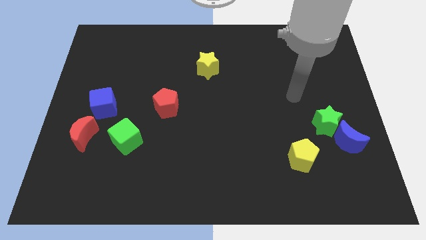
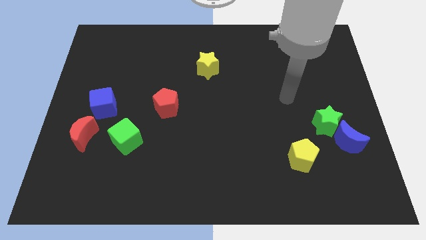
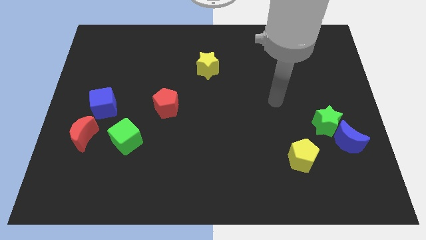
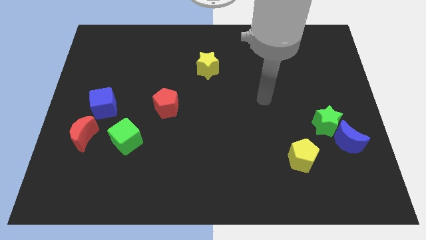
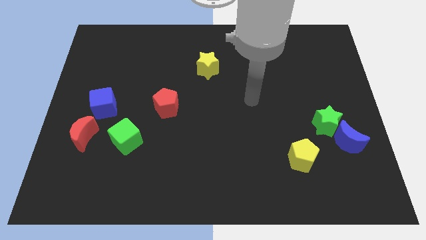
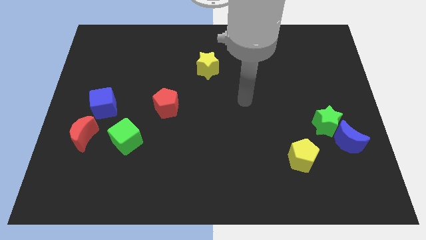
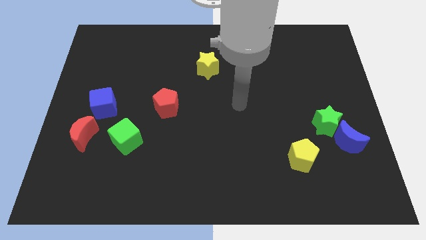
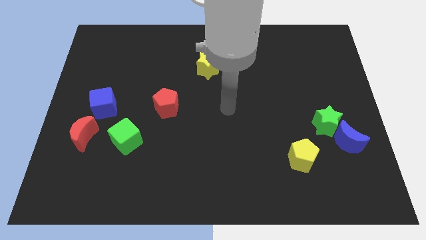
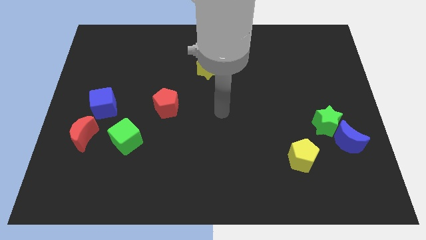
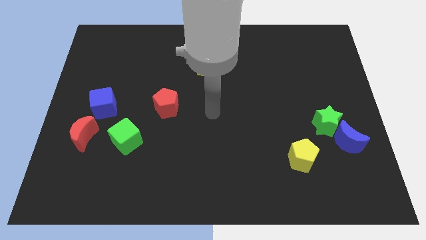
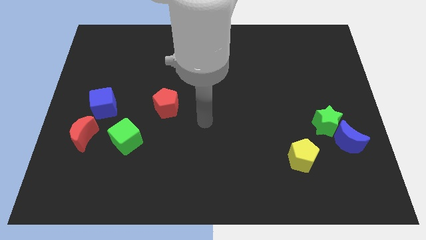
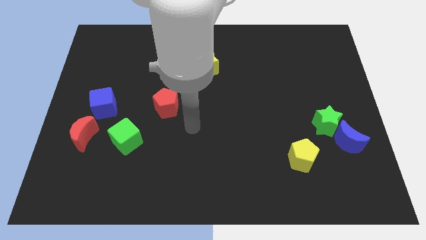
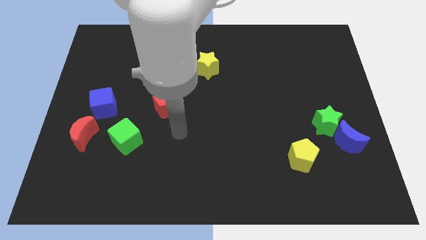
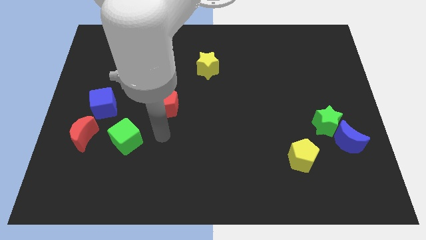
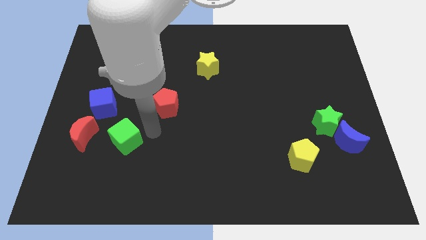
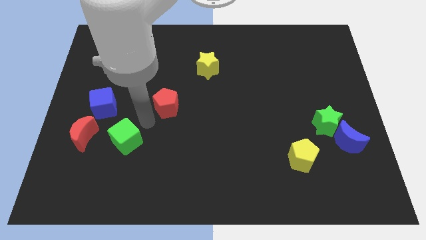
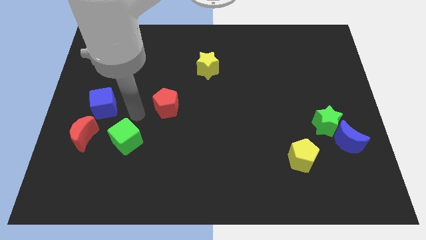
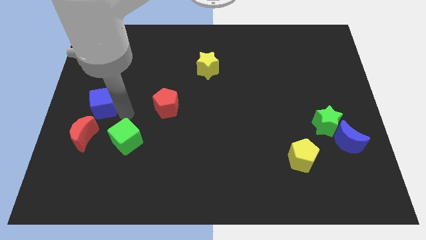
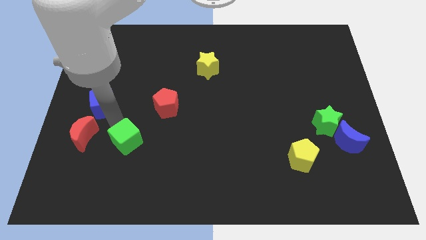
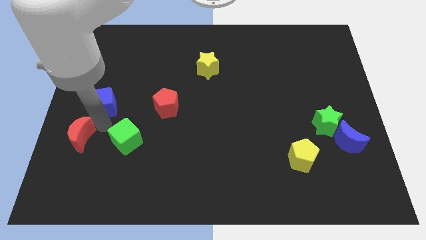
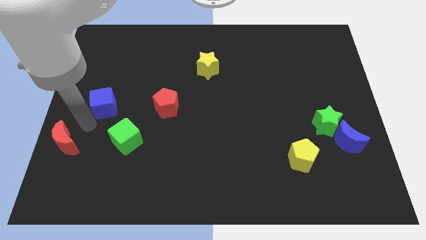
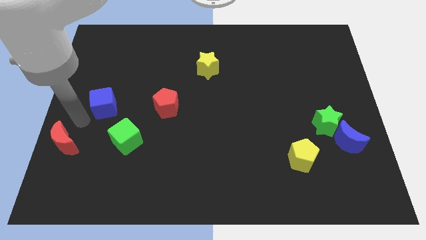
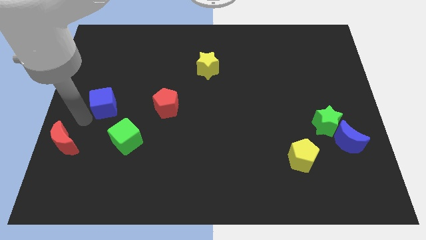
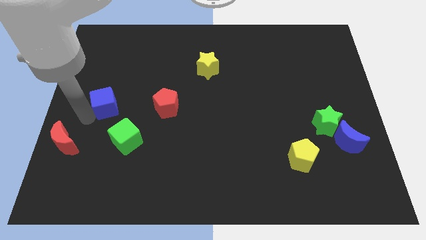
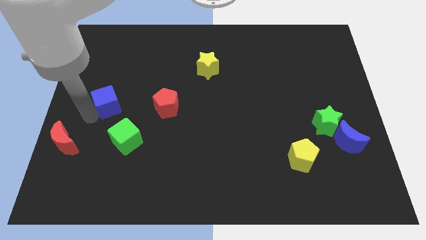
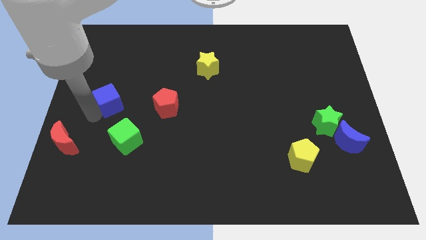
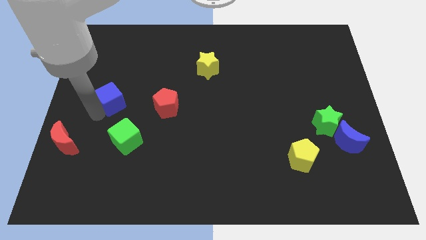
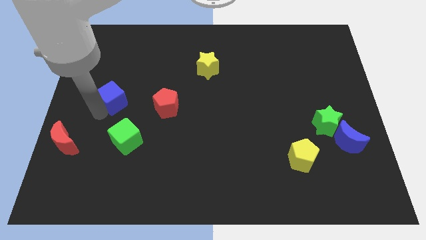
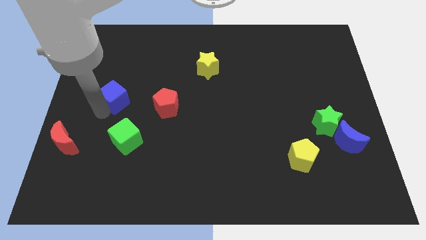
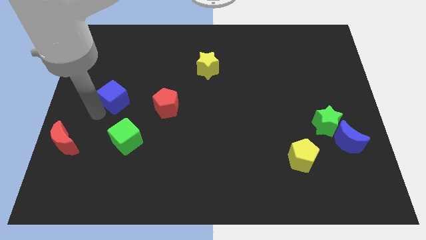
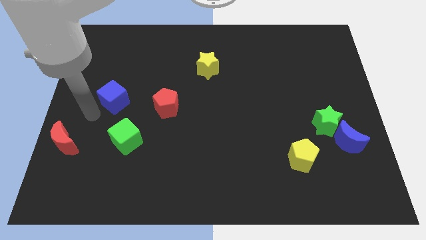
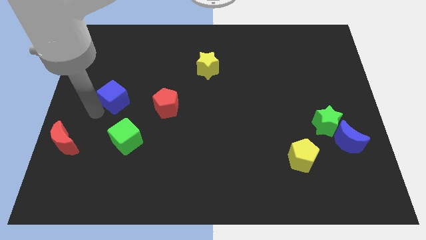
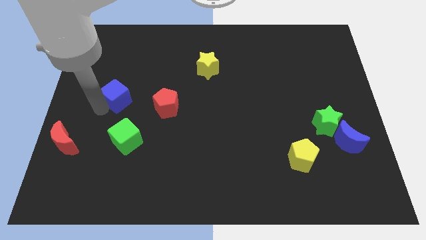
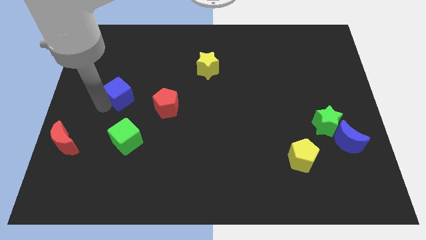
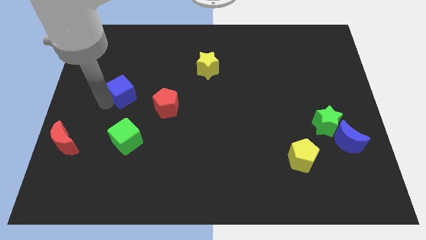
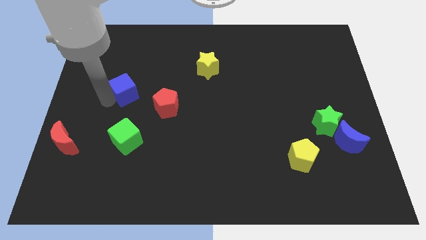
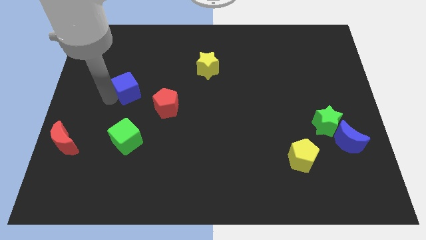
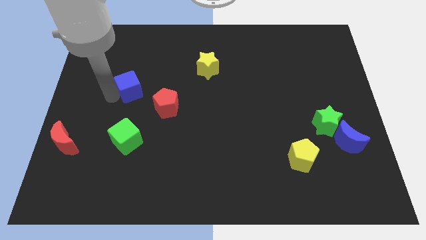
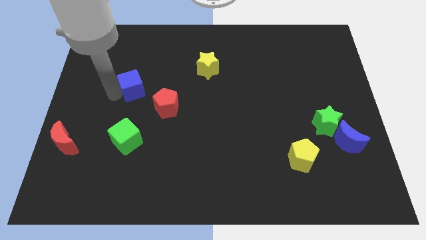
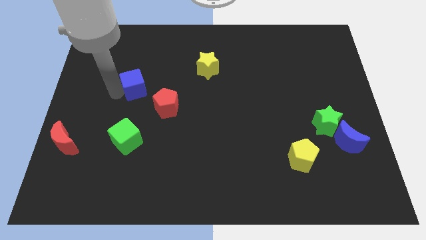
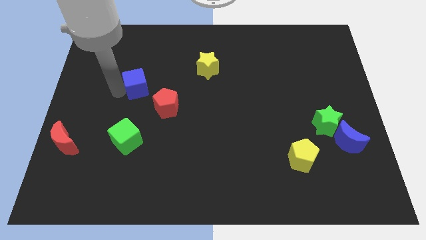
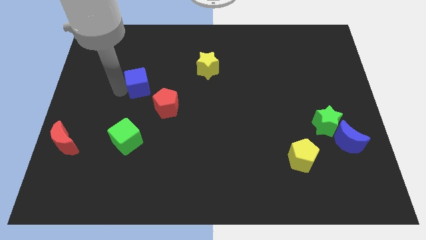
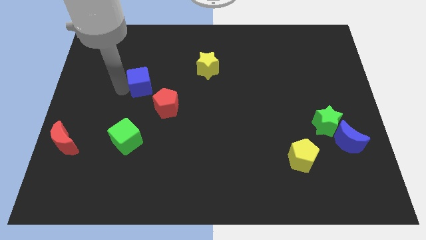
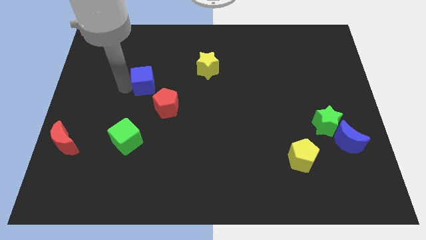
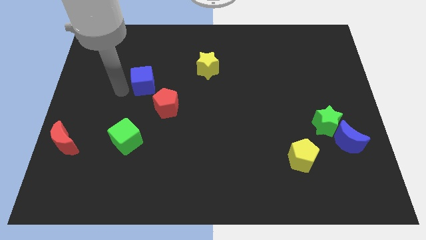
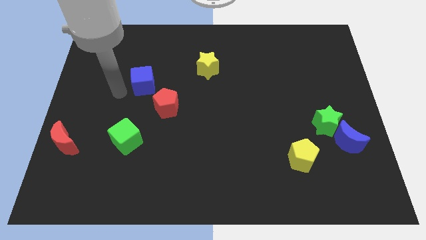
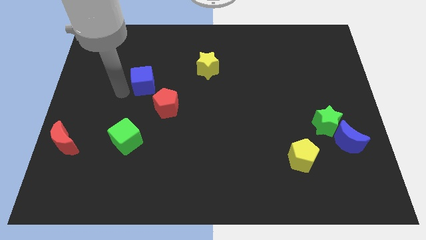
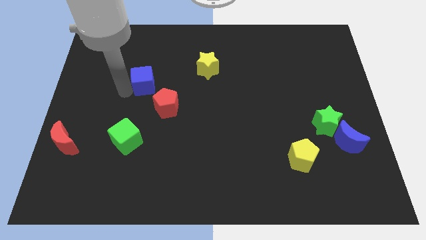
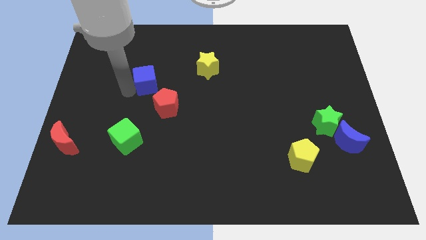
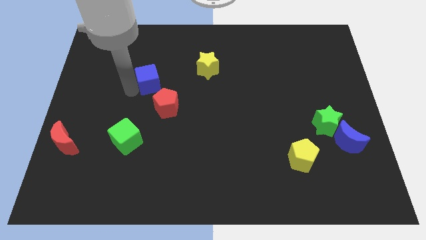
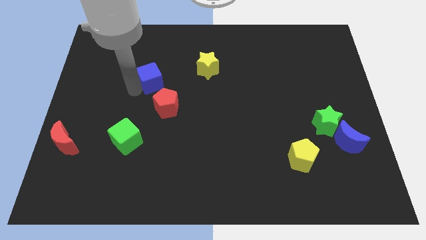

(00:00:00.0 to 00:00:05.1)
slide the blue cube to the top of the red pentagon

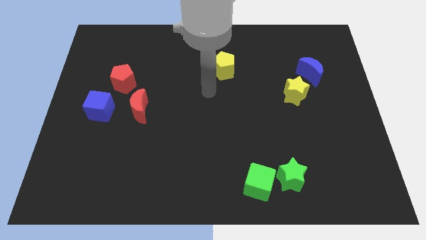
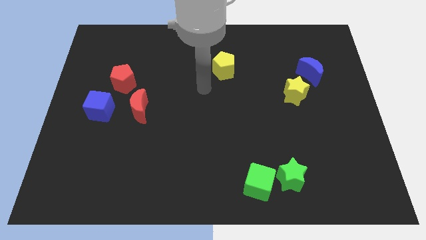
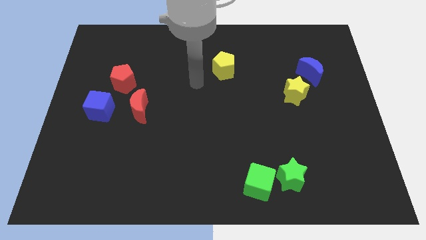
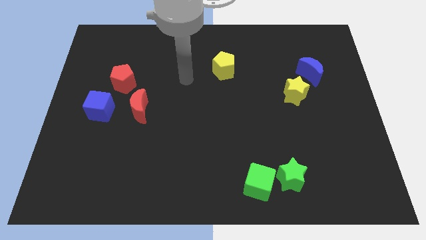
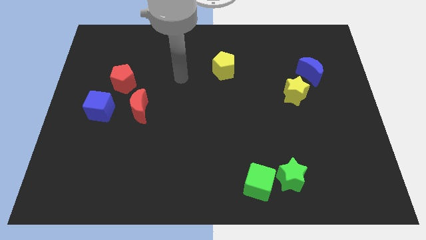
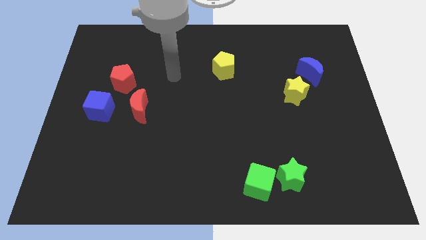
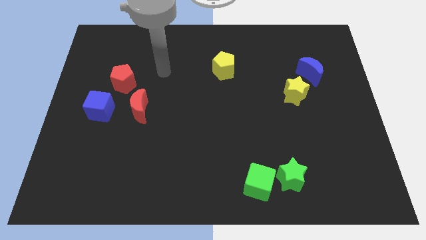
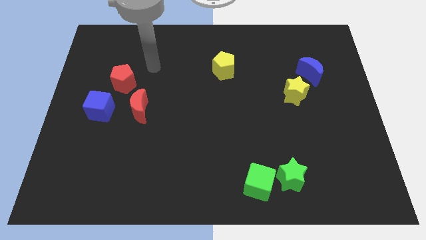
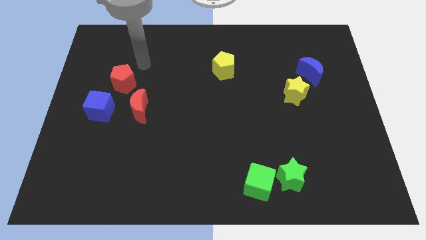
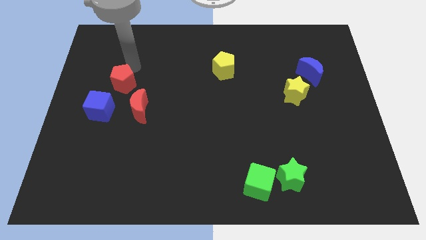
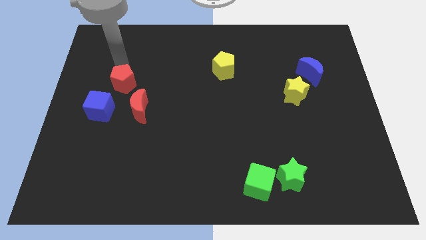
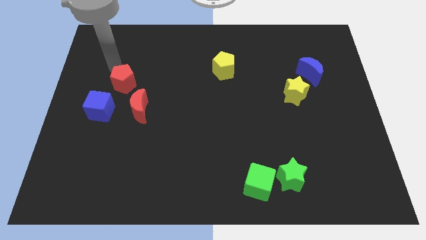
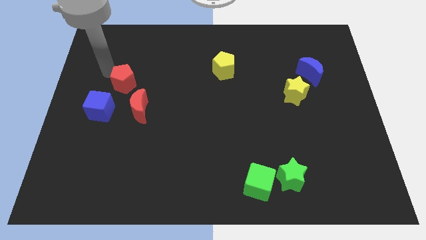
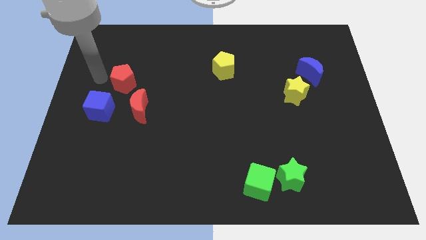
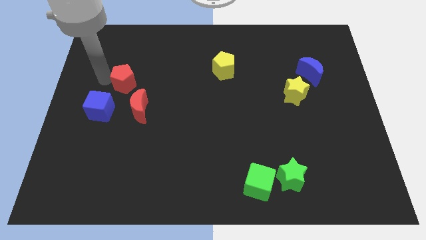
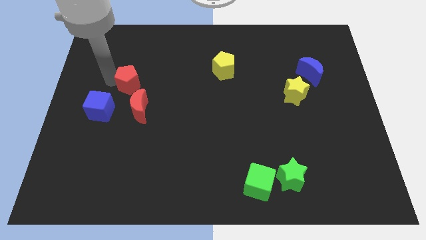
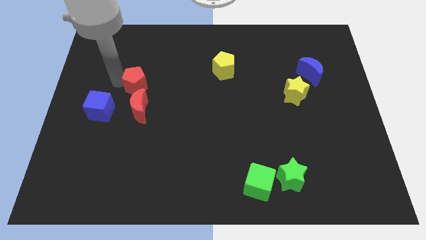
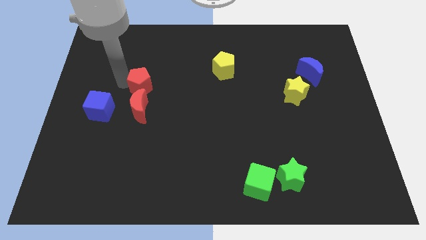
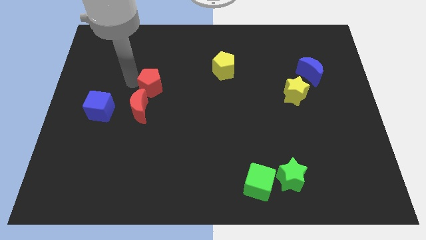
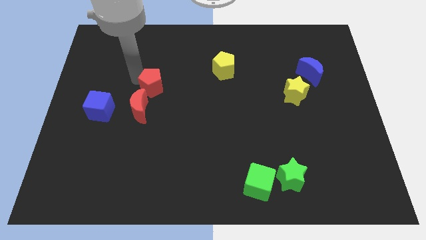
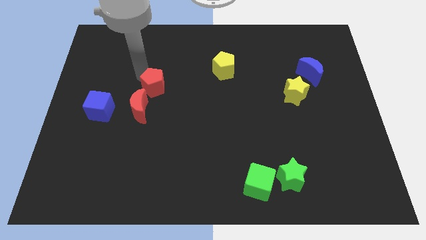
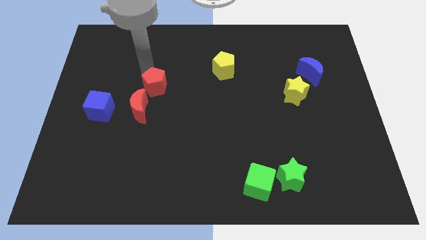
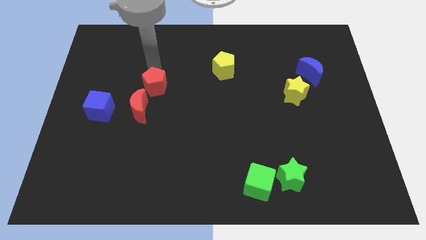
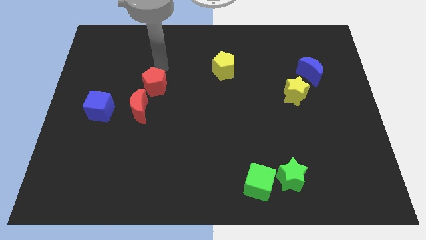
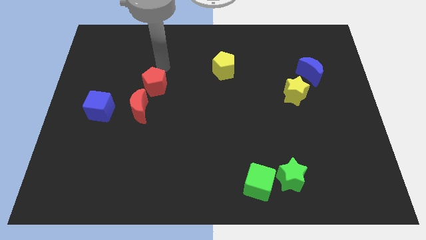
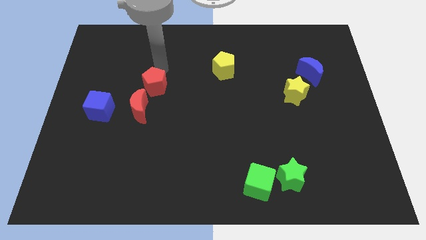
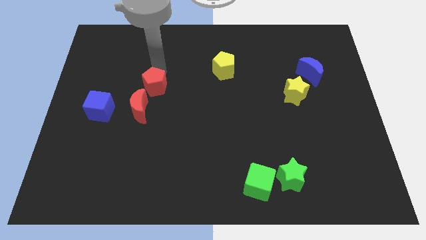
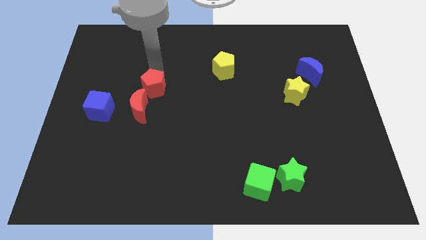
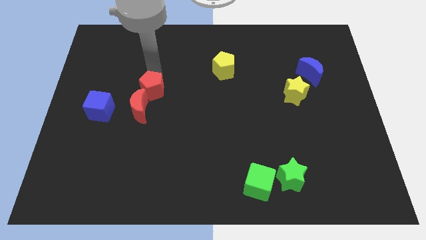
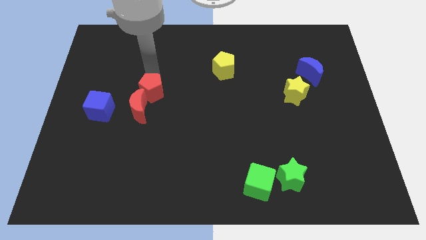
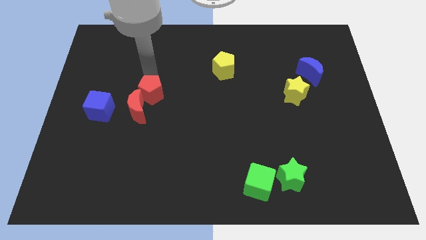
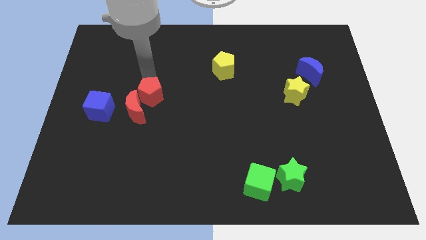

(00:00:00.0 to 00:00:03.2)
put the red pentagon just right of the blue cube
